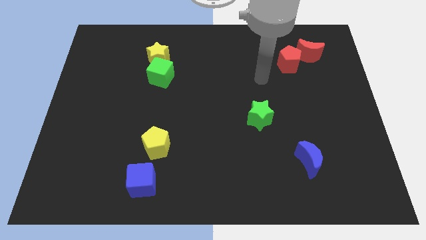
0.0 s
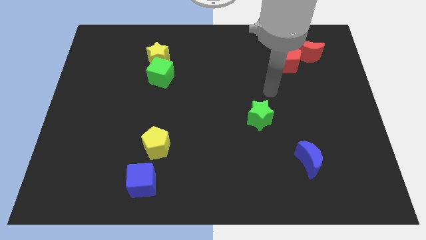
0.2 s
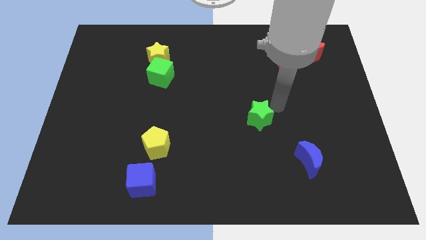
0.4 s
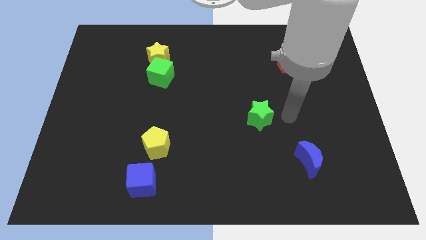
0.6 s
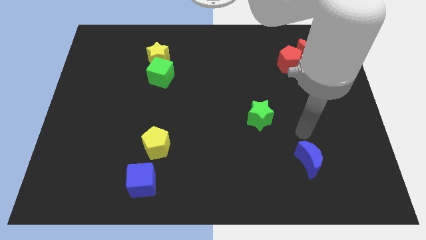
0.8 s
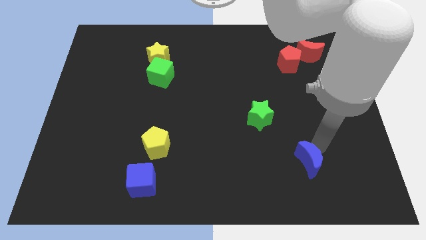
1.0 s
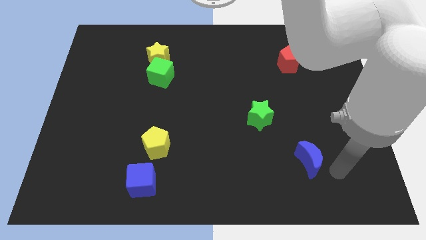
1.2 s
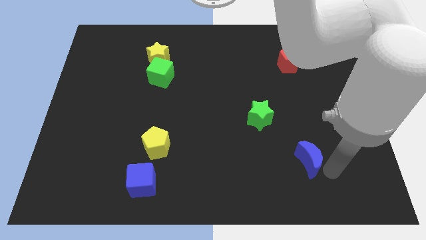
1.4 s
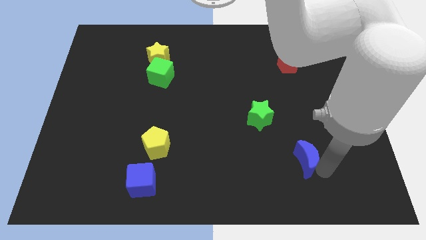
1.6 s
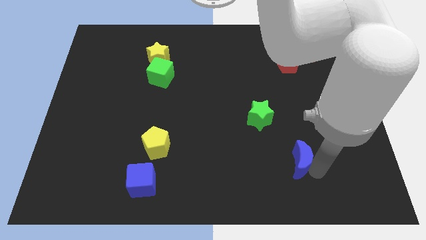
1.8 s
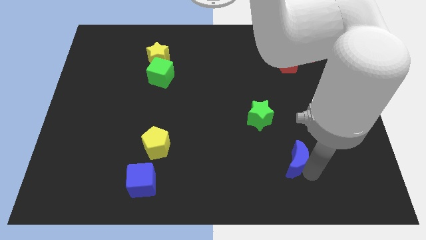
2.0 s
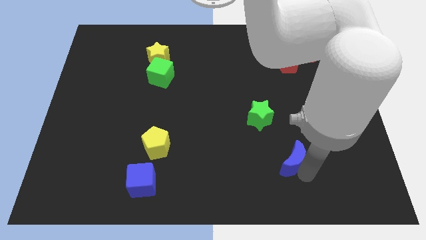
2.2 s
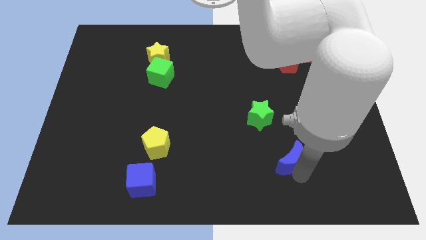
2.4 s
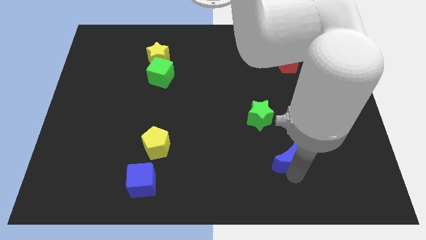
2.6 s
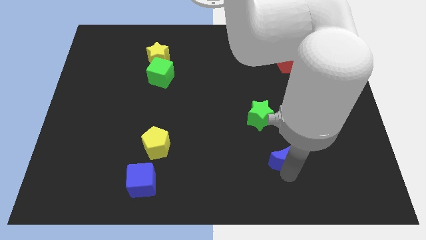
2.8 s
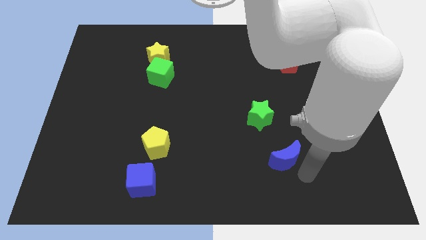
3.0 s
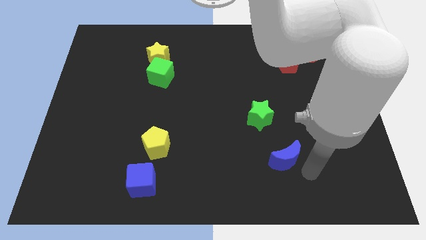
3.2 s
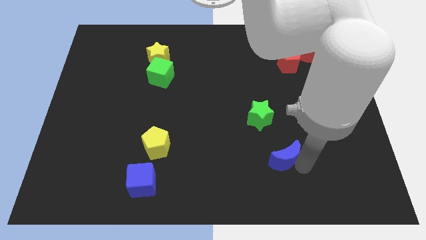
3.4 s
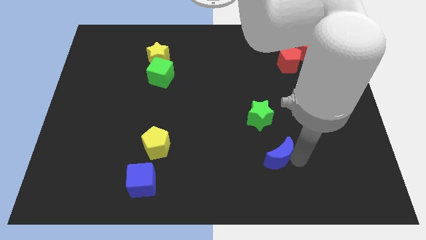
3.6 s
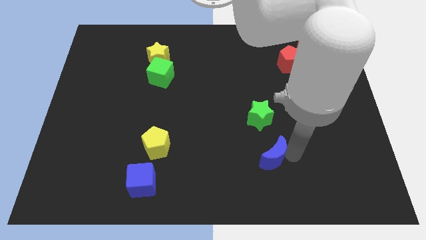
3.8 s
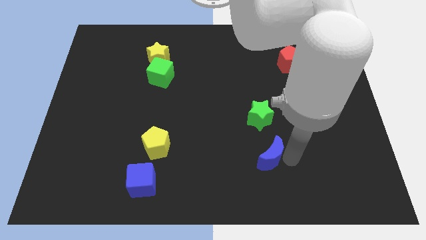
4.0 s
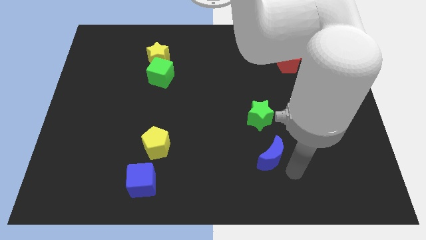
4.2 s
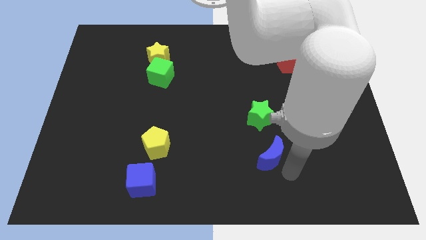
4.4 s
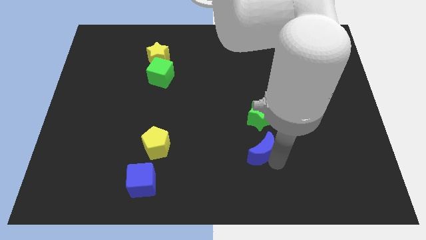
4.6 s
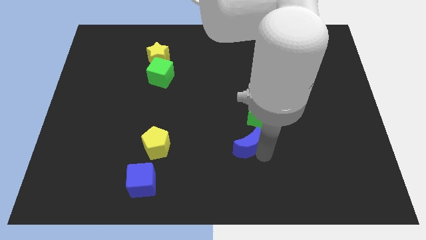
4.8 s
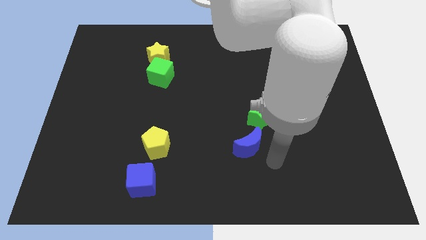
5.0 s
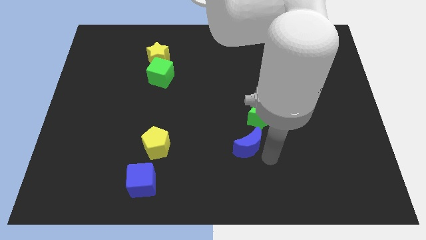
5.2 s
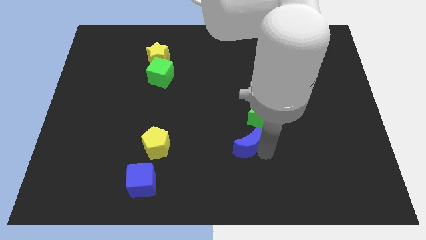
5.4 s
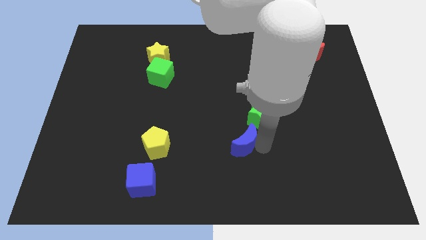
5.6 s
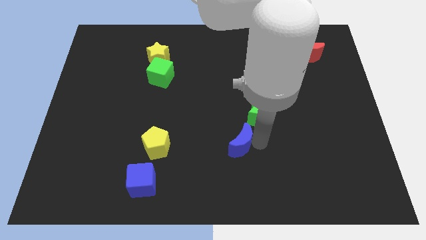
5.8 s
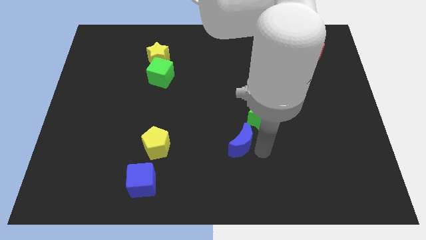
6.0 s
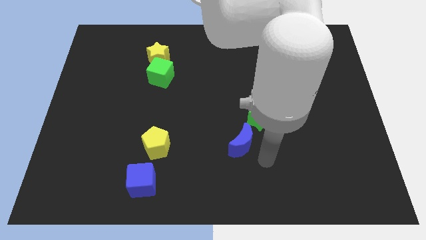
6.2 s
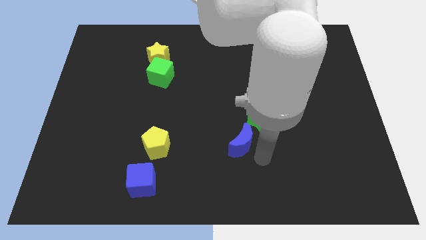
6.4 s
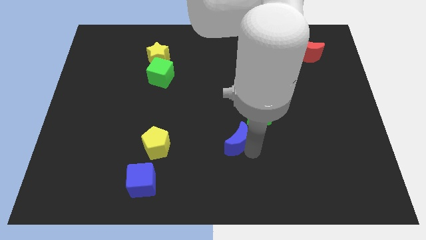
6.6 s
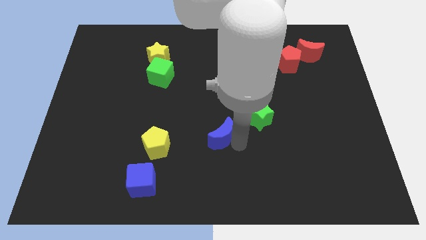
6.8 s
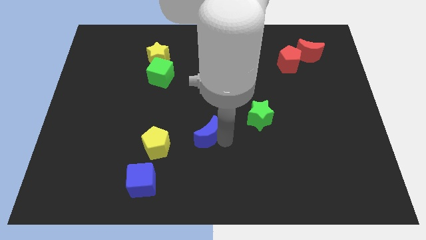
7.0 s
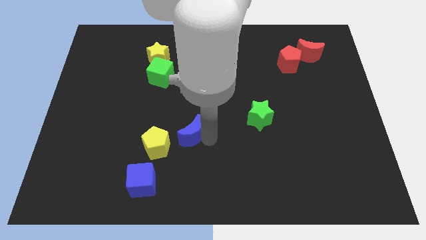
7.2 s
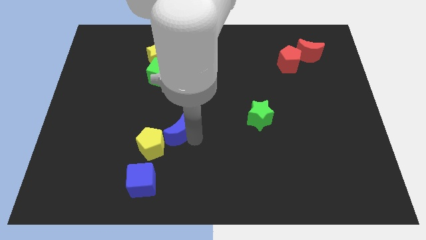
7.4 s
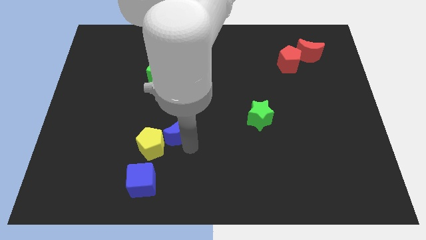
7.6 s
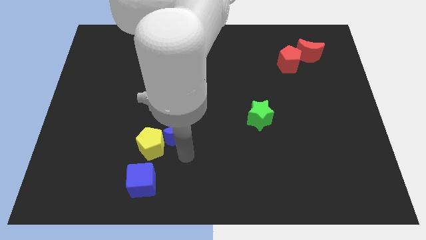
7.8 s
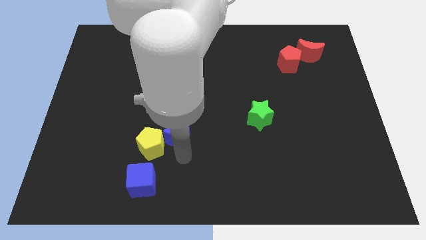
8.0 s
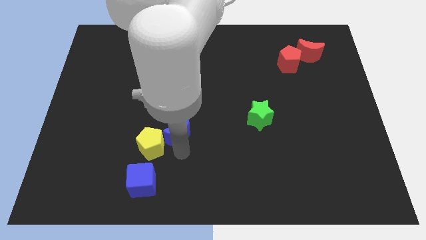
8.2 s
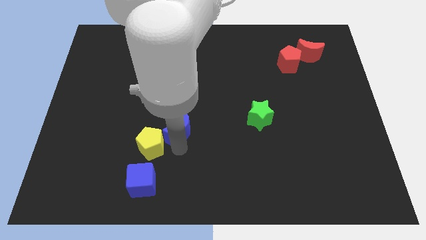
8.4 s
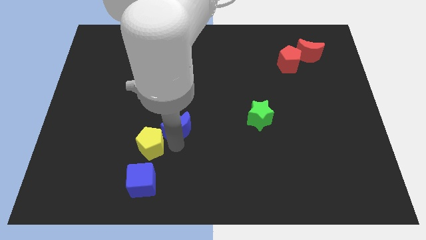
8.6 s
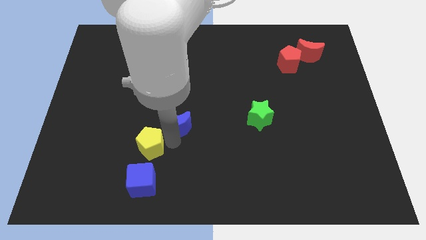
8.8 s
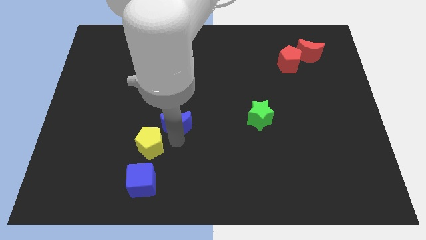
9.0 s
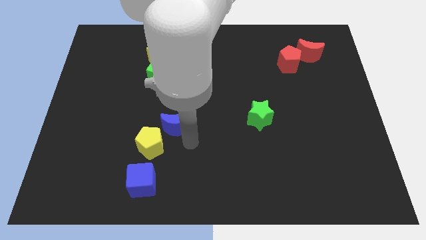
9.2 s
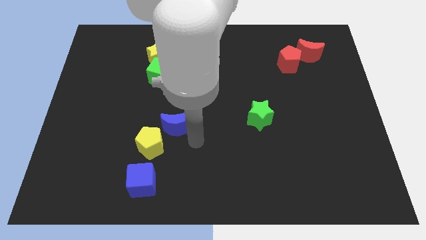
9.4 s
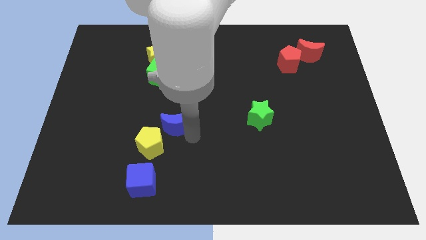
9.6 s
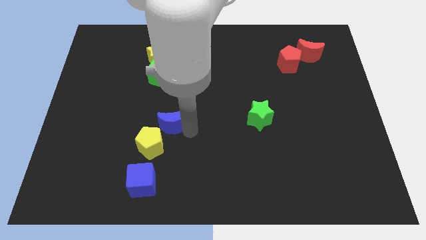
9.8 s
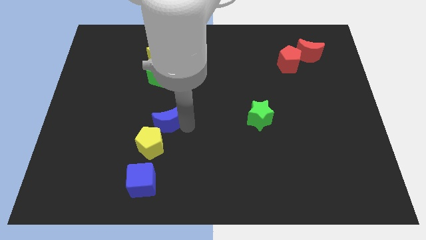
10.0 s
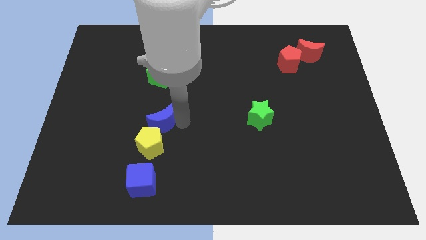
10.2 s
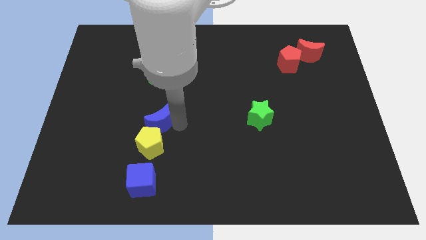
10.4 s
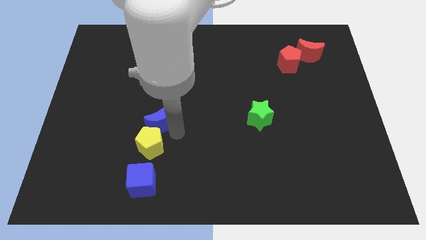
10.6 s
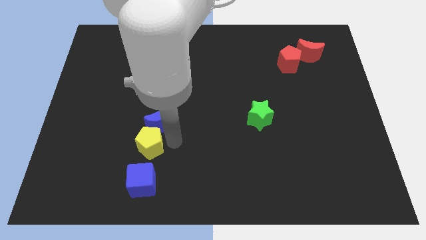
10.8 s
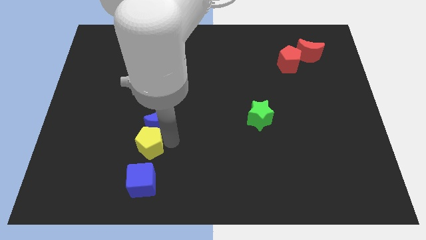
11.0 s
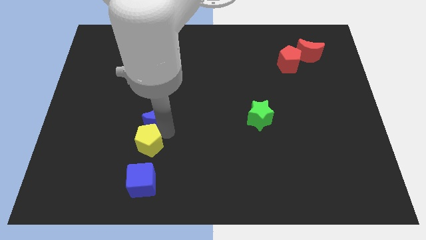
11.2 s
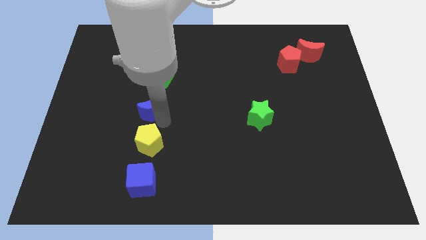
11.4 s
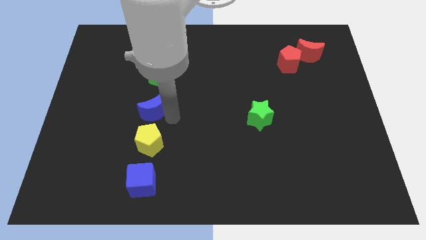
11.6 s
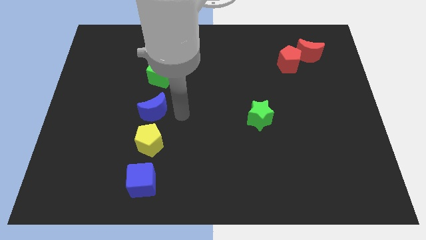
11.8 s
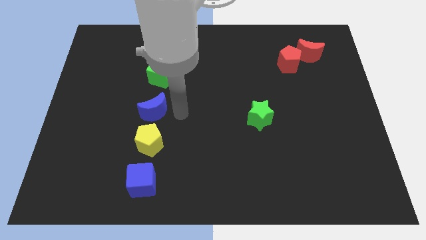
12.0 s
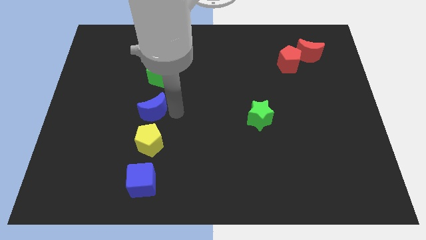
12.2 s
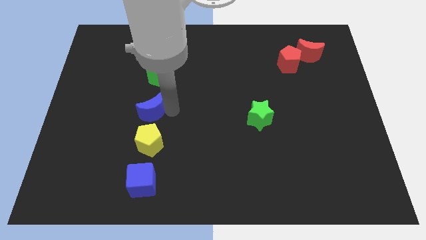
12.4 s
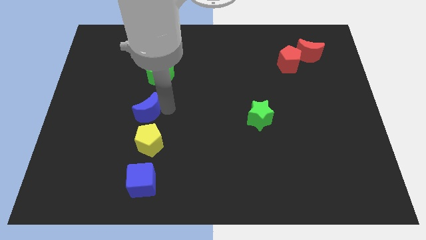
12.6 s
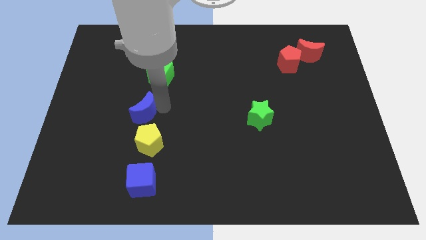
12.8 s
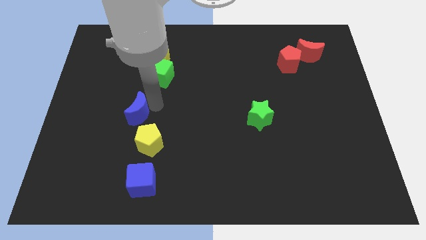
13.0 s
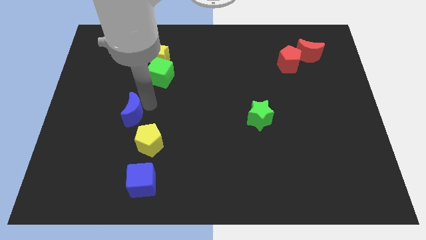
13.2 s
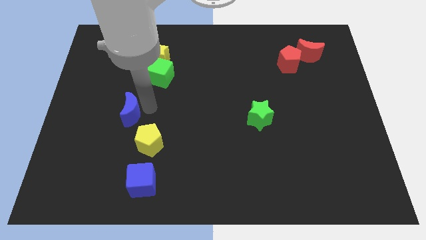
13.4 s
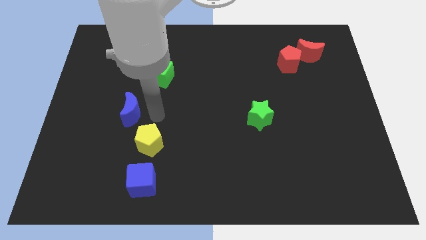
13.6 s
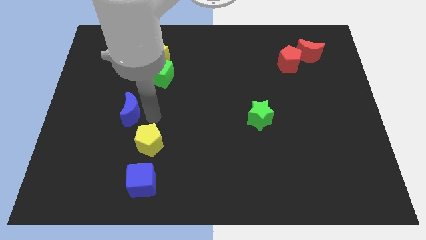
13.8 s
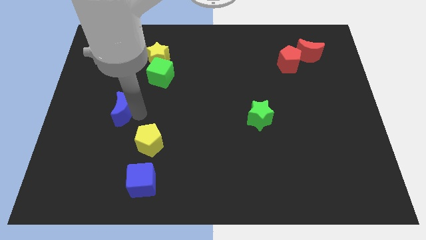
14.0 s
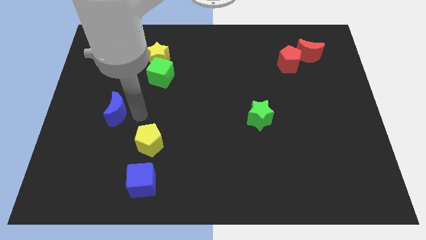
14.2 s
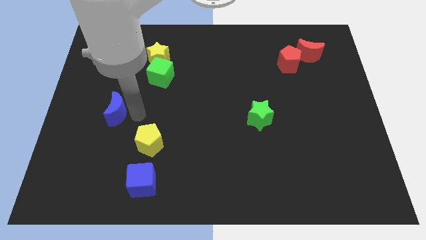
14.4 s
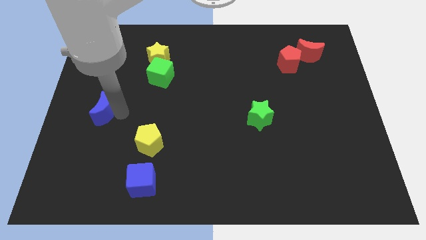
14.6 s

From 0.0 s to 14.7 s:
move the blue moon to the left side of the board
